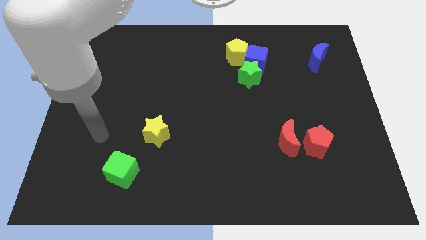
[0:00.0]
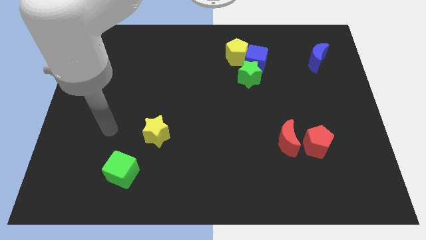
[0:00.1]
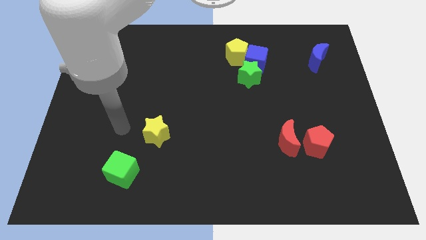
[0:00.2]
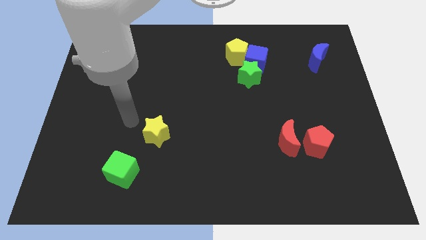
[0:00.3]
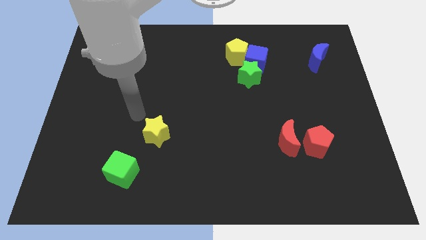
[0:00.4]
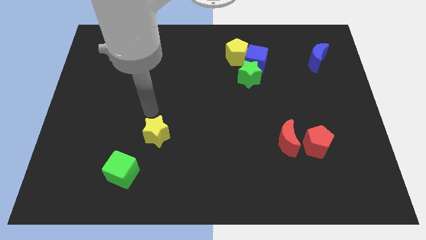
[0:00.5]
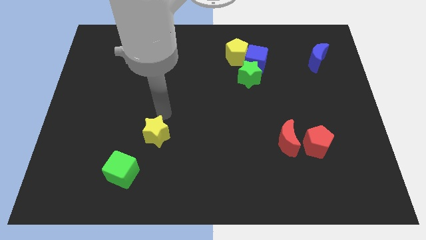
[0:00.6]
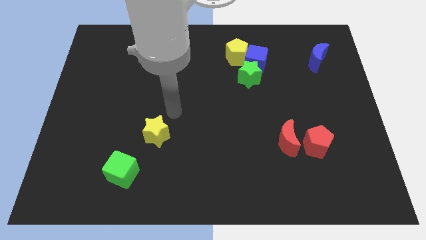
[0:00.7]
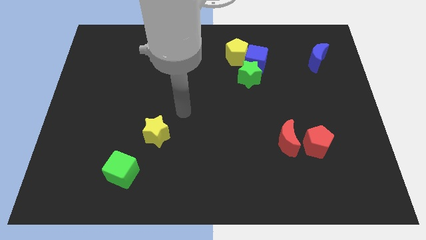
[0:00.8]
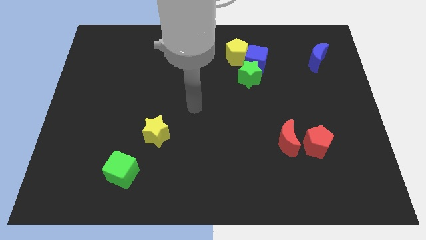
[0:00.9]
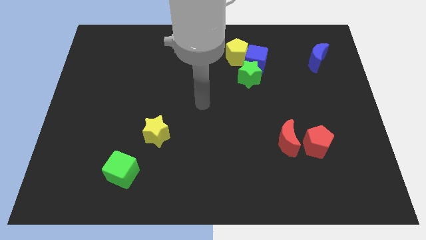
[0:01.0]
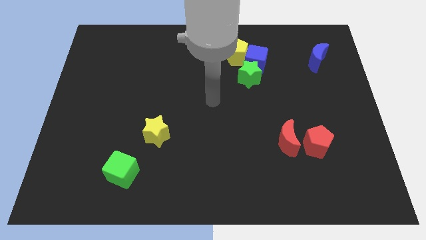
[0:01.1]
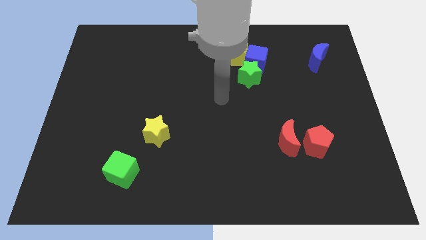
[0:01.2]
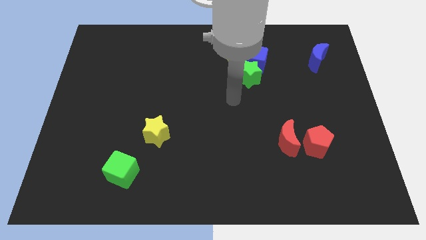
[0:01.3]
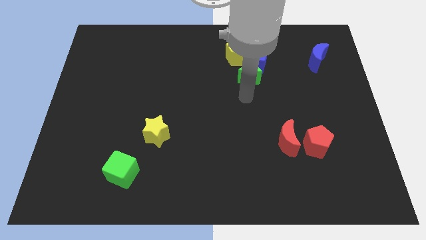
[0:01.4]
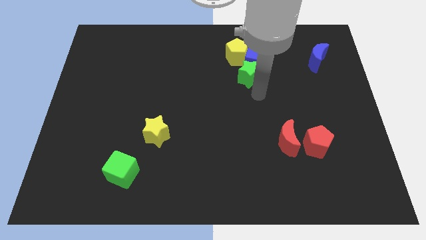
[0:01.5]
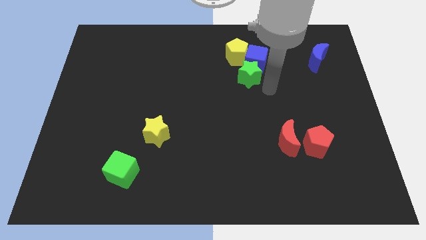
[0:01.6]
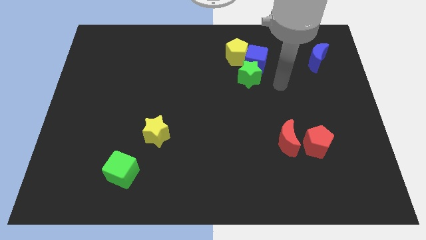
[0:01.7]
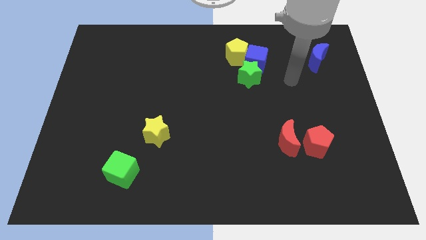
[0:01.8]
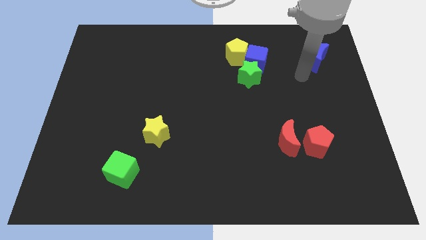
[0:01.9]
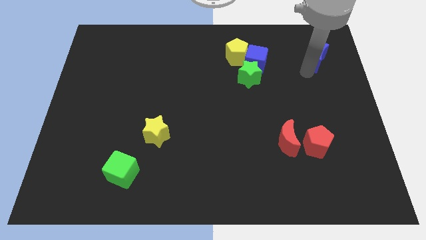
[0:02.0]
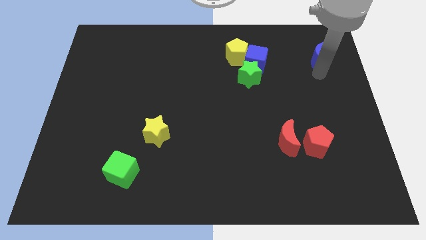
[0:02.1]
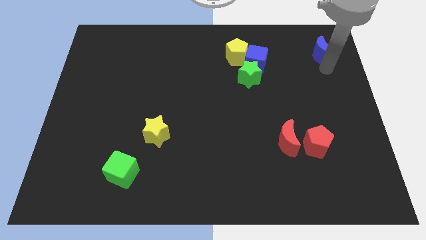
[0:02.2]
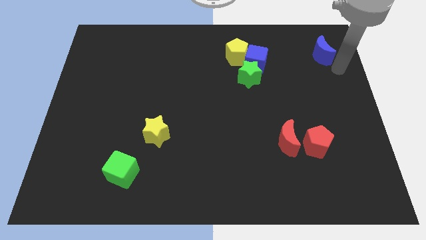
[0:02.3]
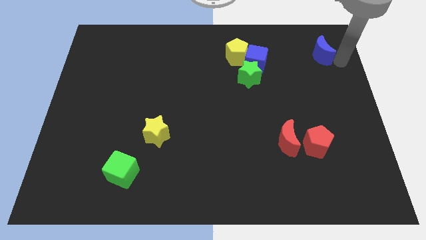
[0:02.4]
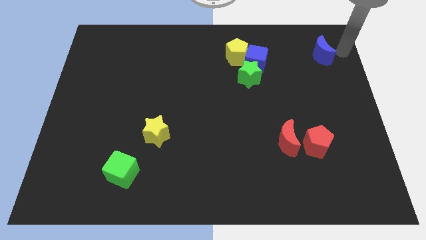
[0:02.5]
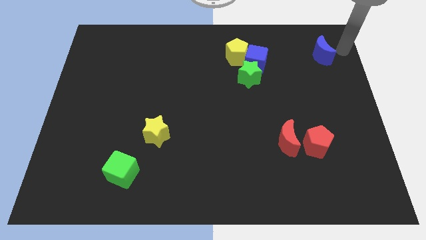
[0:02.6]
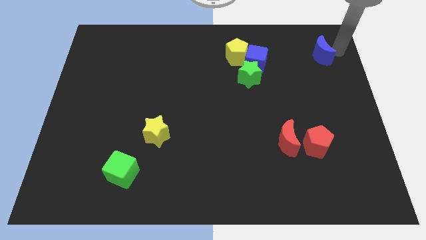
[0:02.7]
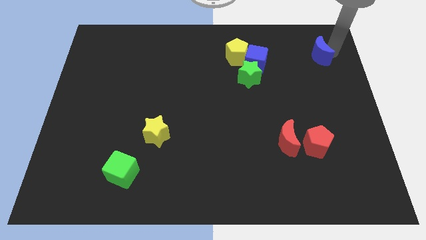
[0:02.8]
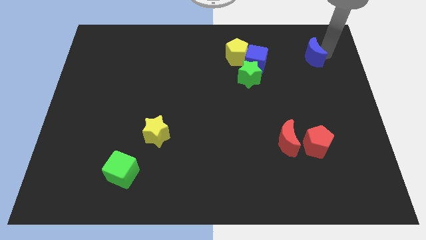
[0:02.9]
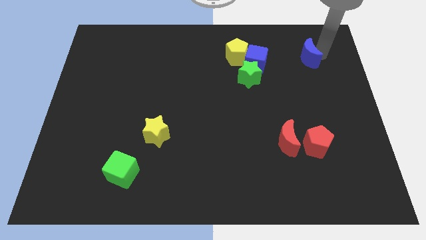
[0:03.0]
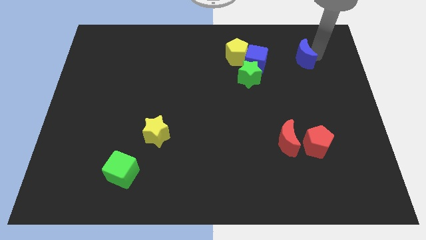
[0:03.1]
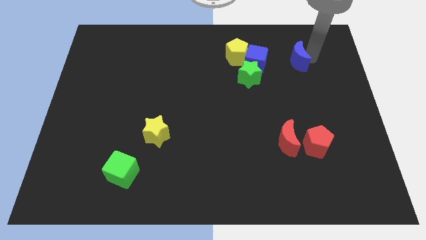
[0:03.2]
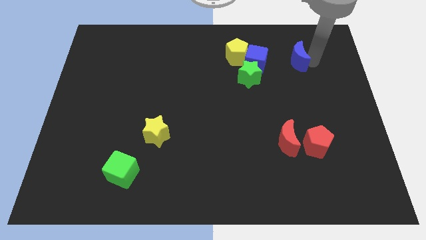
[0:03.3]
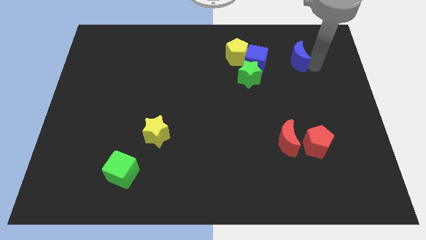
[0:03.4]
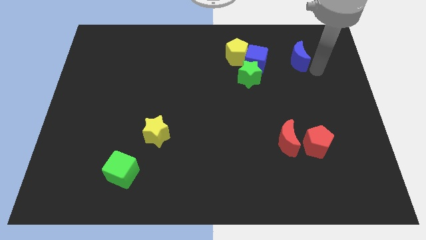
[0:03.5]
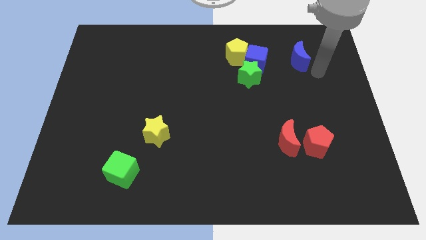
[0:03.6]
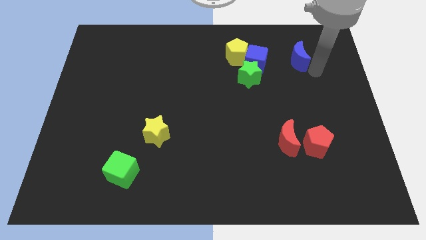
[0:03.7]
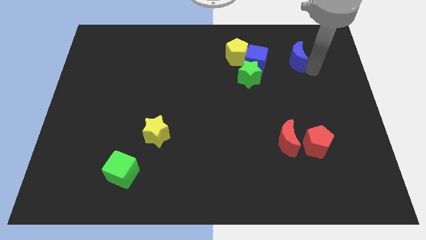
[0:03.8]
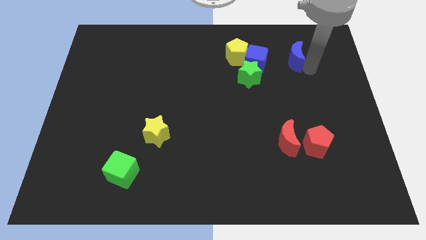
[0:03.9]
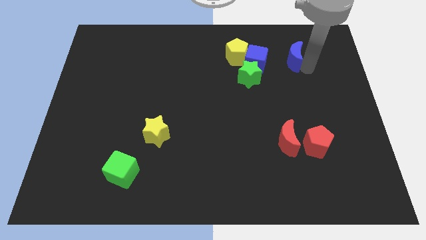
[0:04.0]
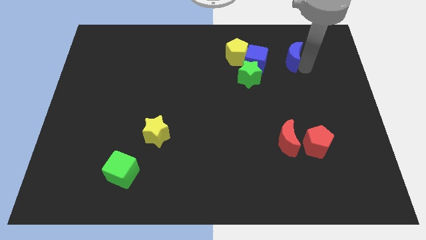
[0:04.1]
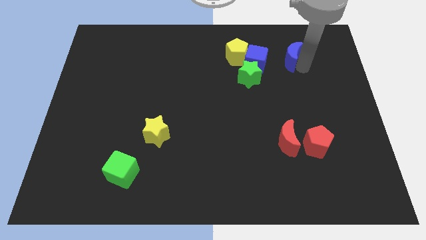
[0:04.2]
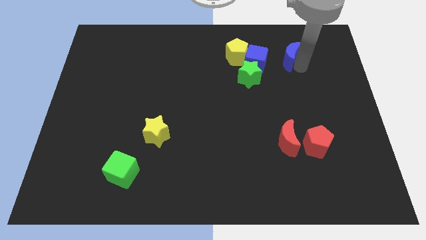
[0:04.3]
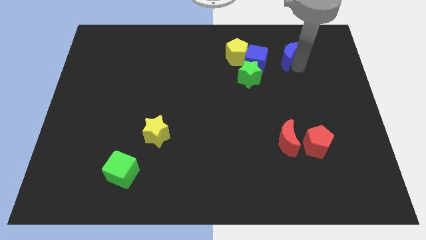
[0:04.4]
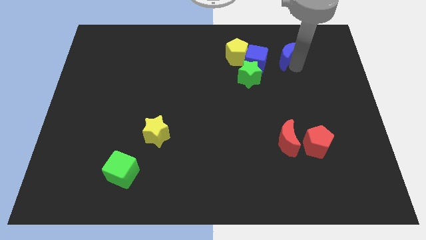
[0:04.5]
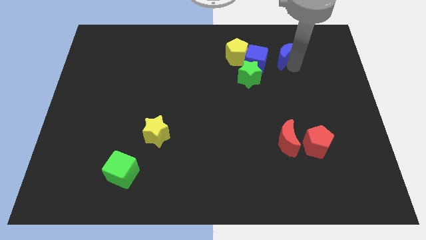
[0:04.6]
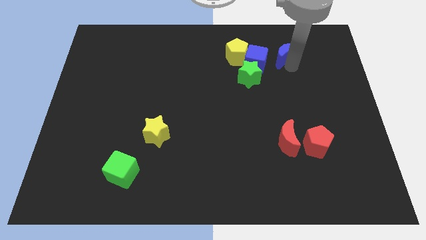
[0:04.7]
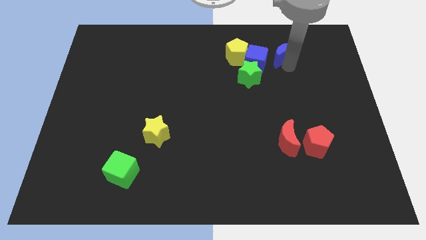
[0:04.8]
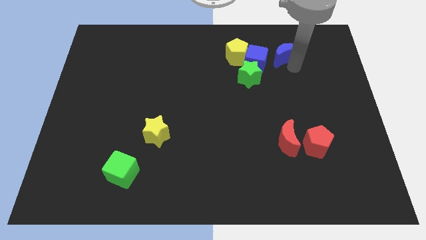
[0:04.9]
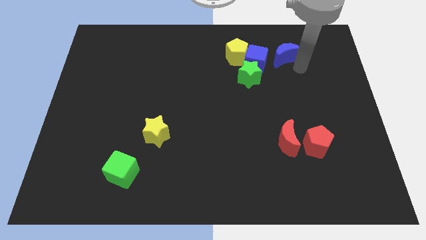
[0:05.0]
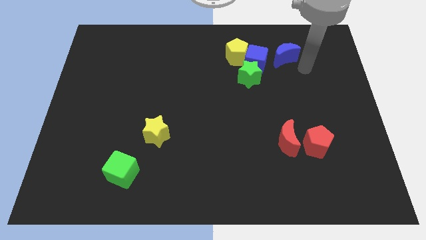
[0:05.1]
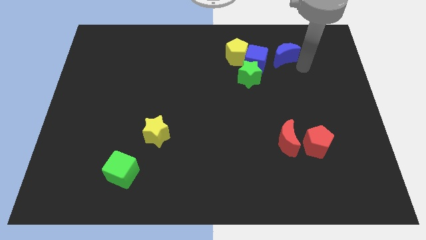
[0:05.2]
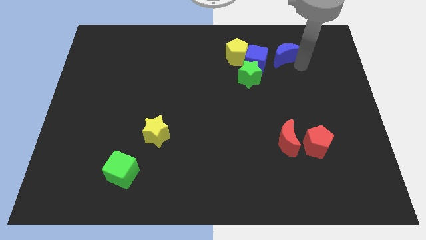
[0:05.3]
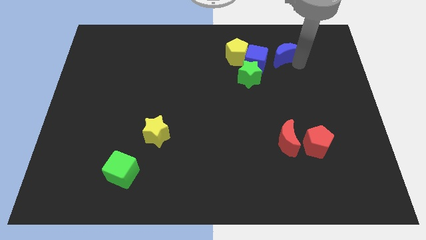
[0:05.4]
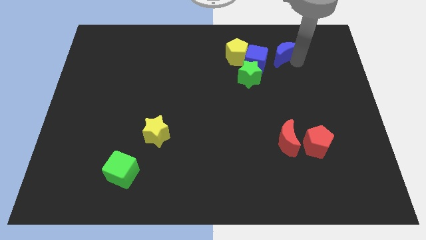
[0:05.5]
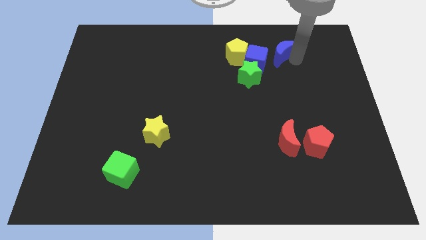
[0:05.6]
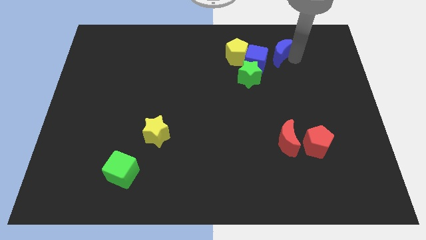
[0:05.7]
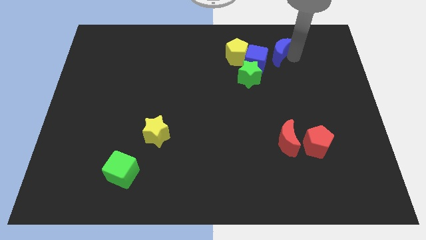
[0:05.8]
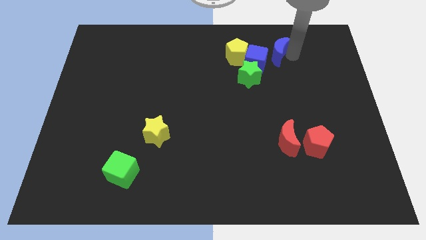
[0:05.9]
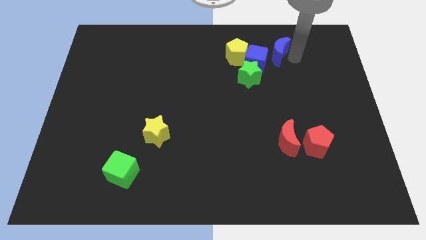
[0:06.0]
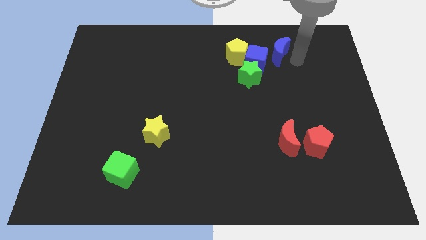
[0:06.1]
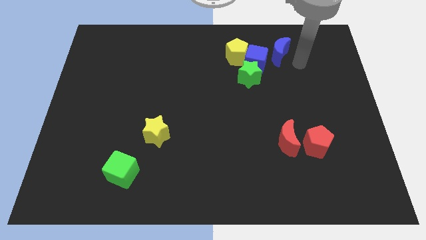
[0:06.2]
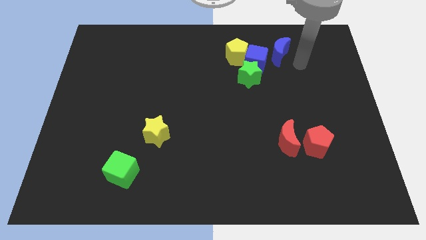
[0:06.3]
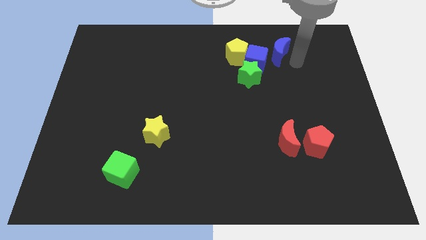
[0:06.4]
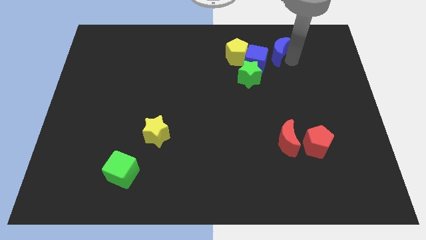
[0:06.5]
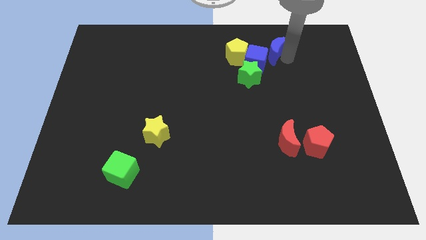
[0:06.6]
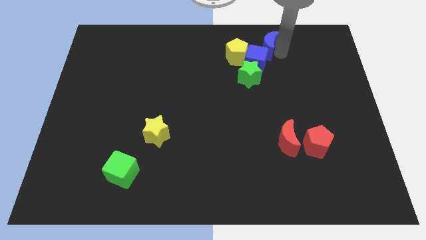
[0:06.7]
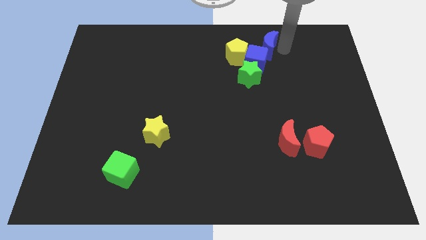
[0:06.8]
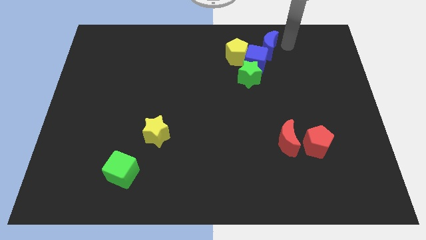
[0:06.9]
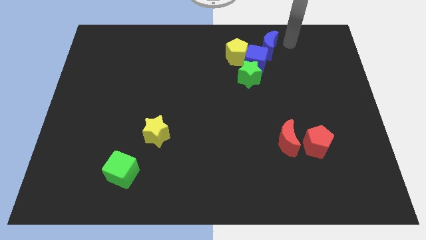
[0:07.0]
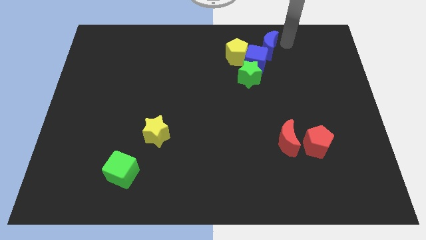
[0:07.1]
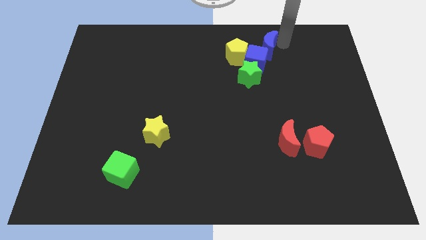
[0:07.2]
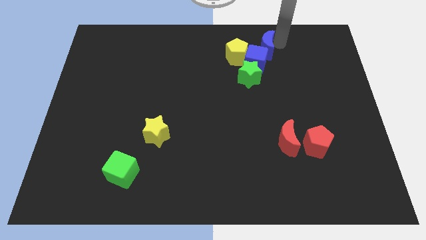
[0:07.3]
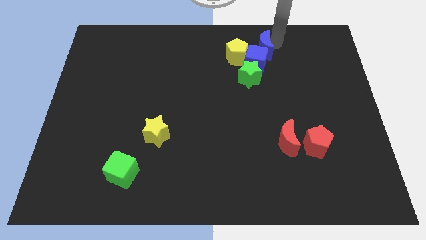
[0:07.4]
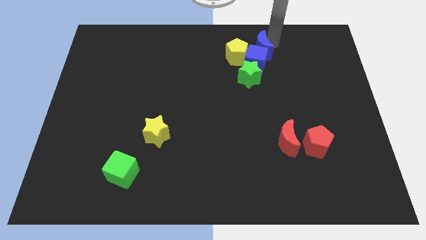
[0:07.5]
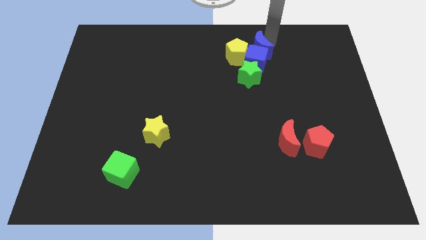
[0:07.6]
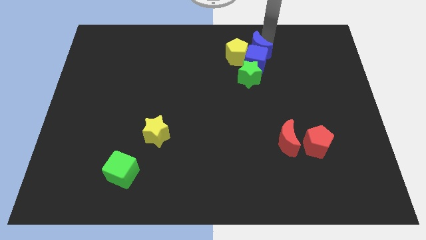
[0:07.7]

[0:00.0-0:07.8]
push the blue moon close to the yellow pentagon
